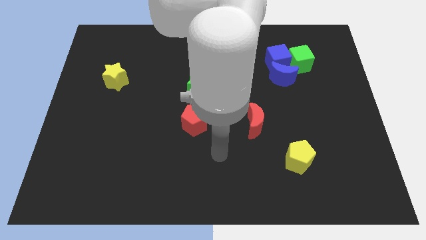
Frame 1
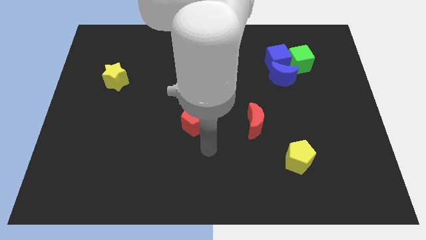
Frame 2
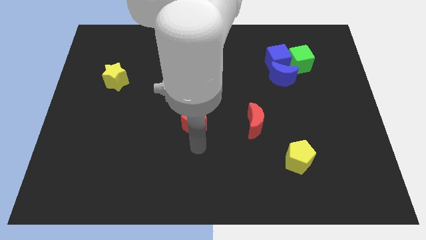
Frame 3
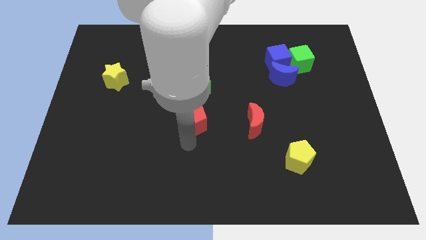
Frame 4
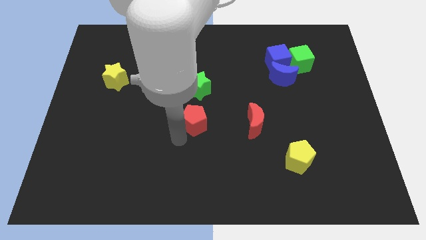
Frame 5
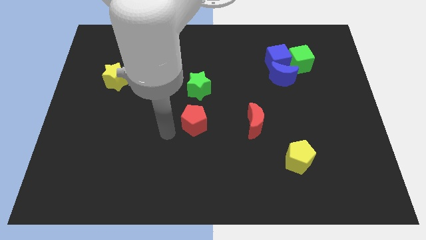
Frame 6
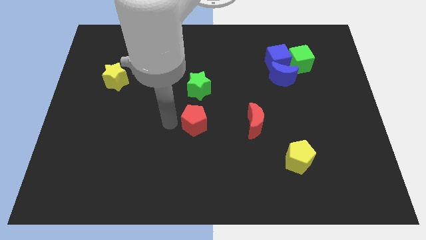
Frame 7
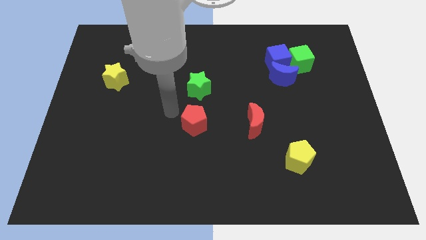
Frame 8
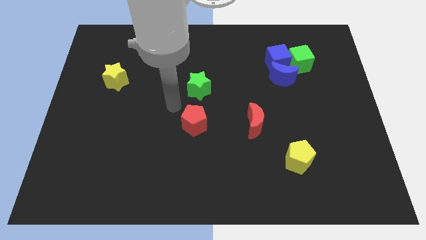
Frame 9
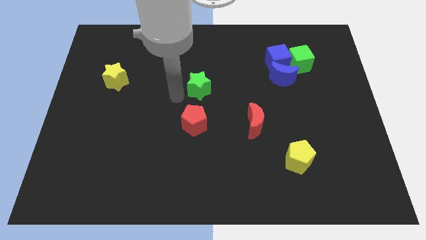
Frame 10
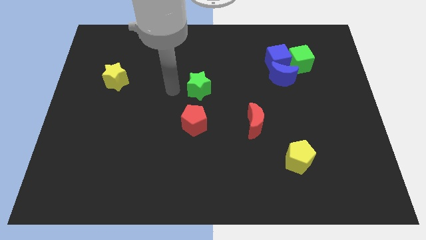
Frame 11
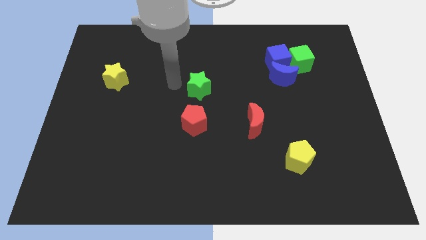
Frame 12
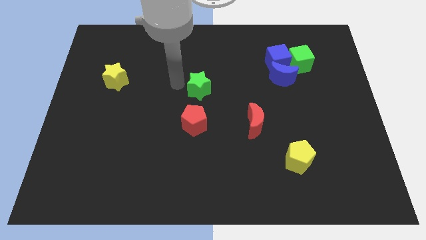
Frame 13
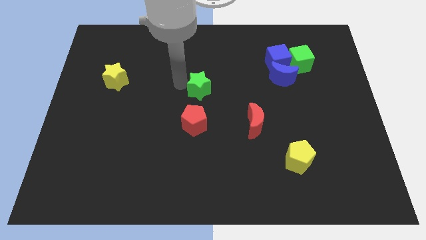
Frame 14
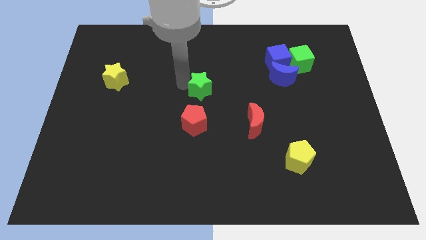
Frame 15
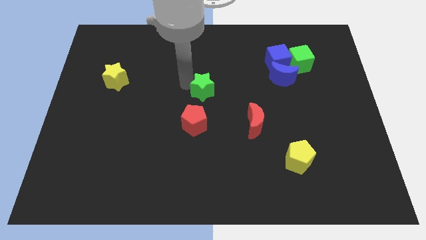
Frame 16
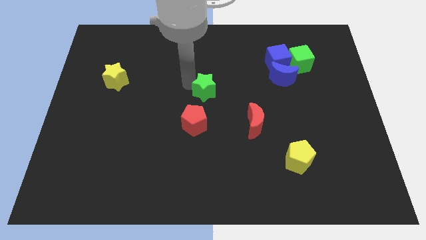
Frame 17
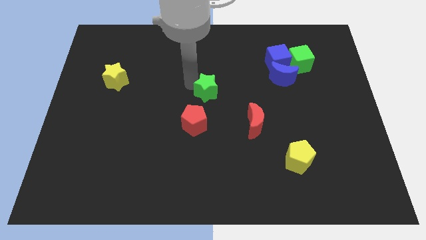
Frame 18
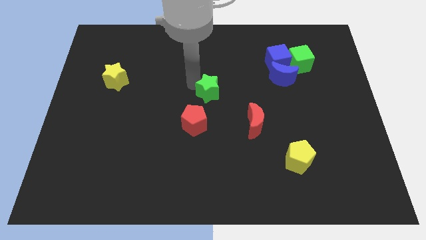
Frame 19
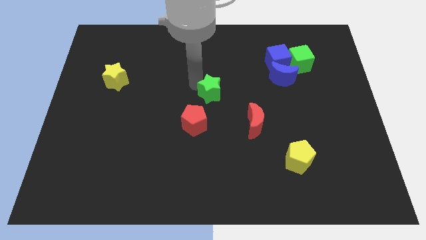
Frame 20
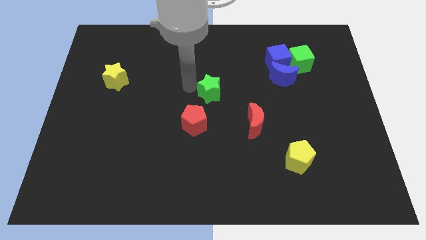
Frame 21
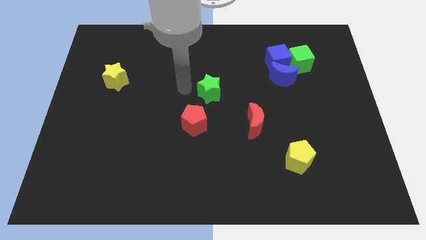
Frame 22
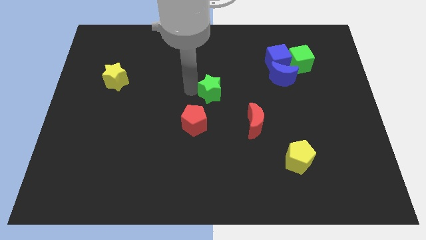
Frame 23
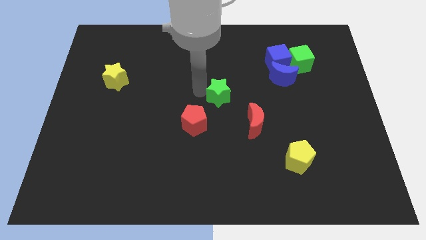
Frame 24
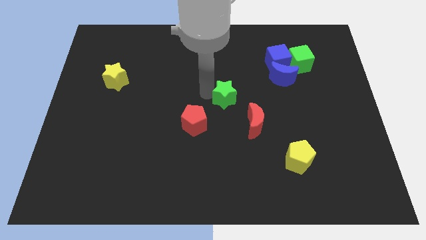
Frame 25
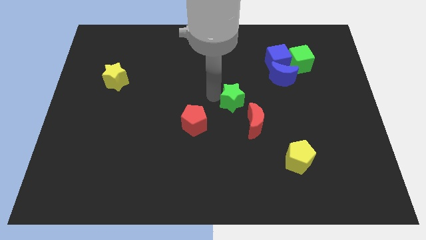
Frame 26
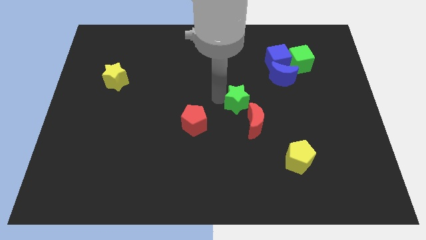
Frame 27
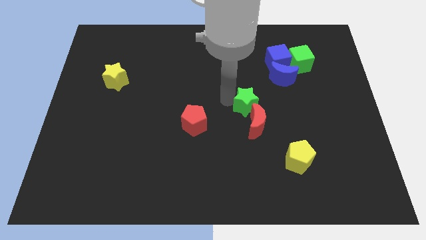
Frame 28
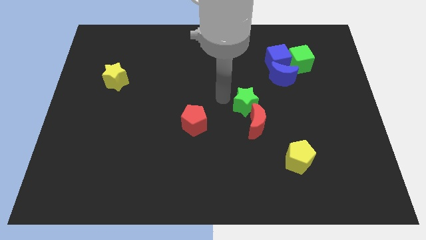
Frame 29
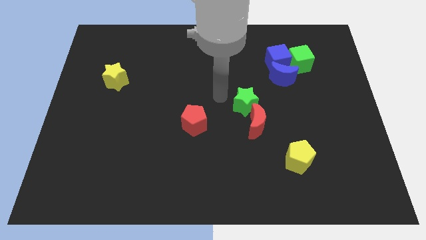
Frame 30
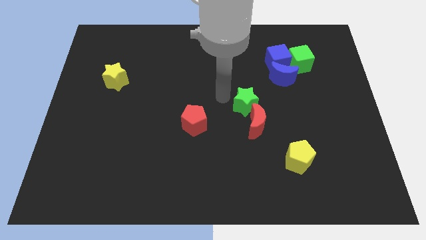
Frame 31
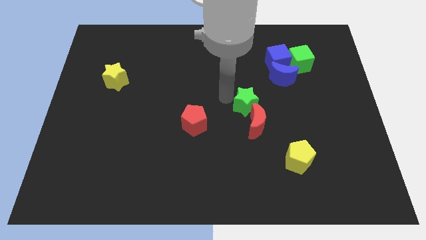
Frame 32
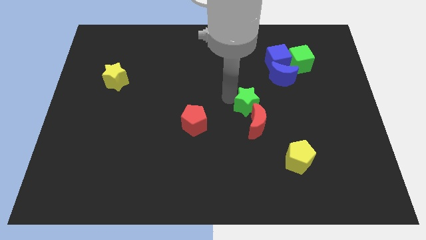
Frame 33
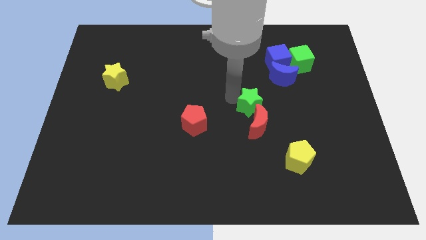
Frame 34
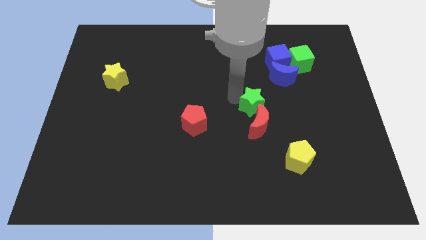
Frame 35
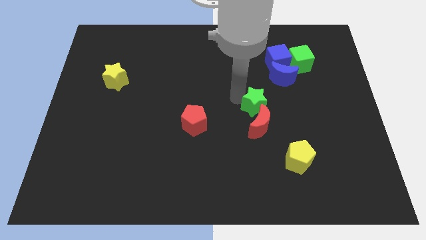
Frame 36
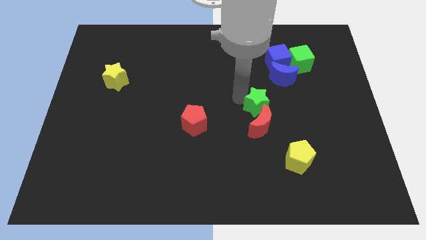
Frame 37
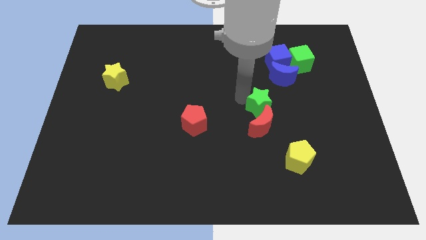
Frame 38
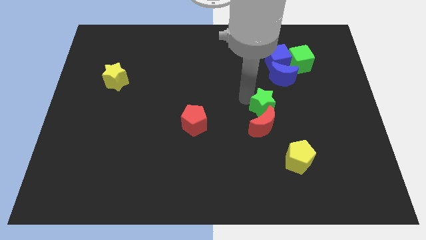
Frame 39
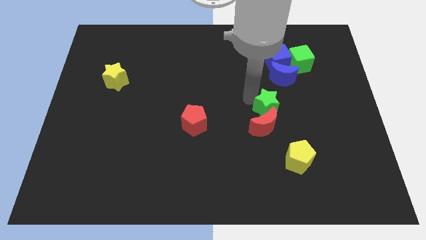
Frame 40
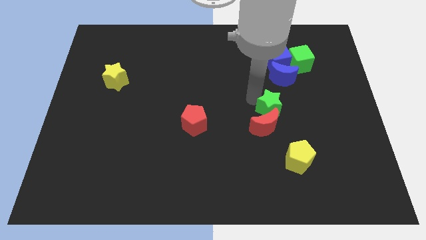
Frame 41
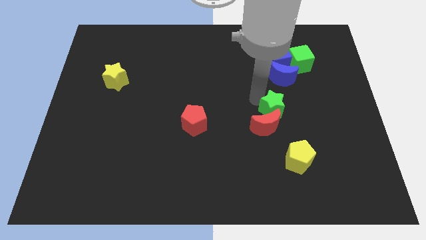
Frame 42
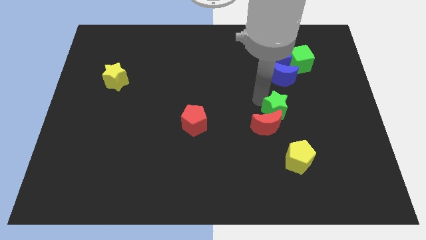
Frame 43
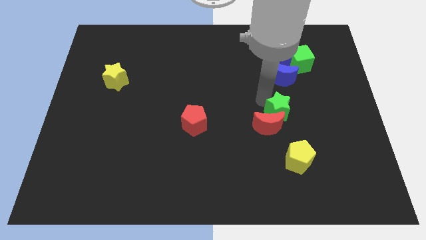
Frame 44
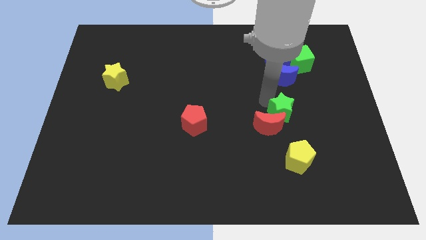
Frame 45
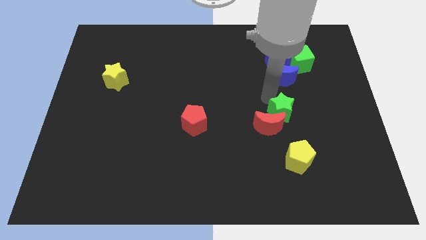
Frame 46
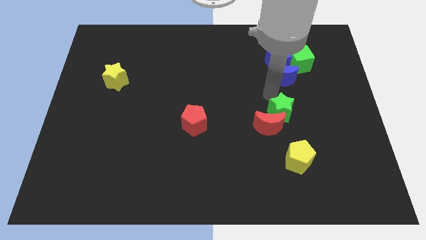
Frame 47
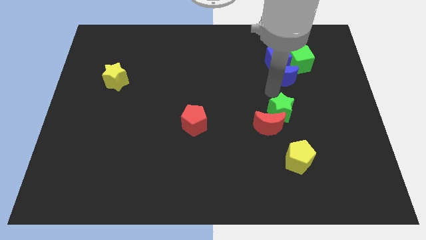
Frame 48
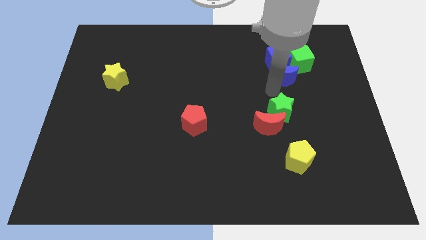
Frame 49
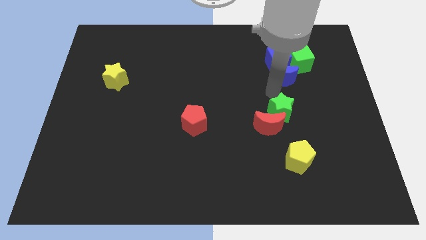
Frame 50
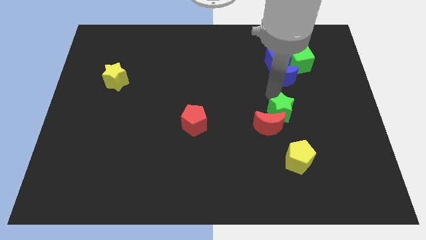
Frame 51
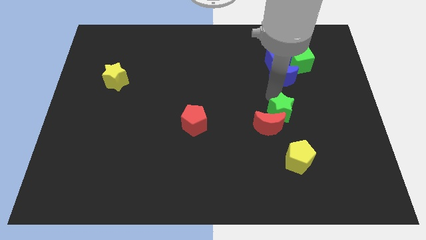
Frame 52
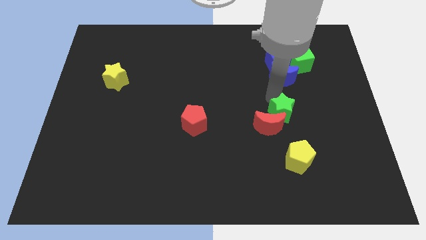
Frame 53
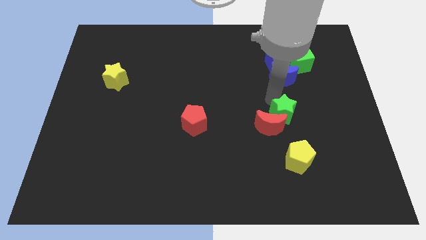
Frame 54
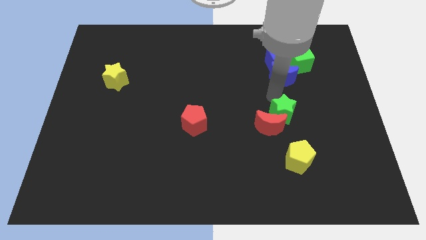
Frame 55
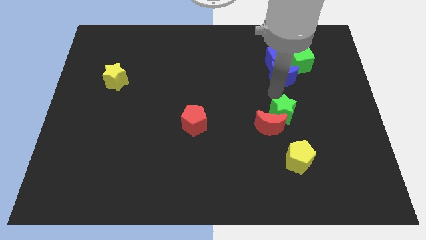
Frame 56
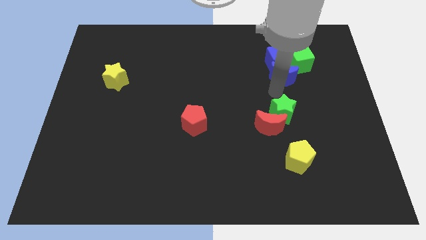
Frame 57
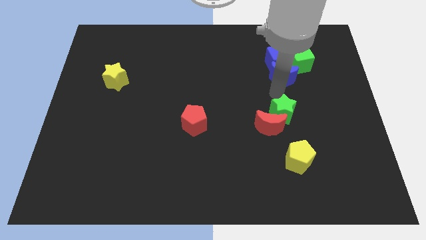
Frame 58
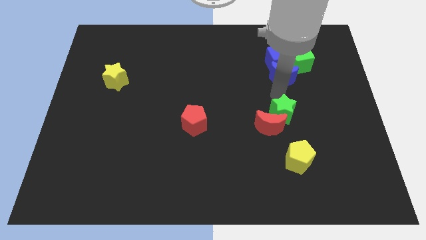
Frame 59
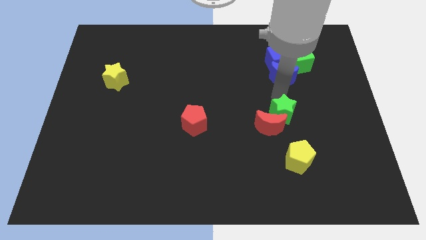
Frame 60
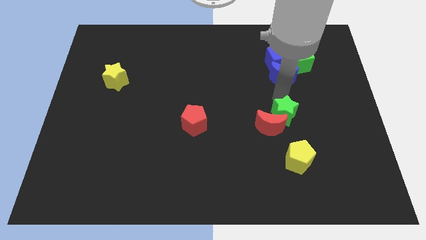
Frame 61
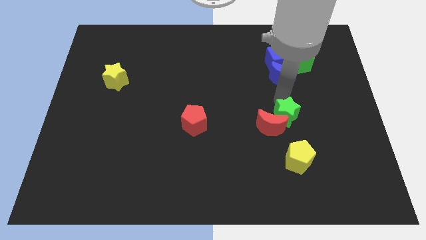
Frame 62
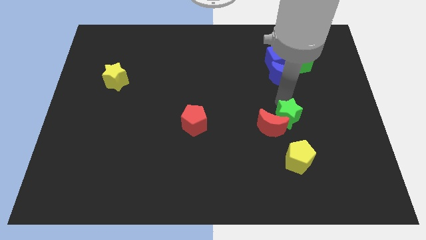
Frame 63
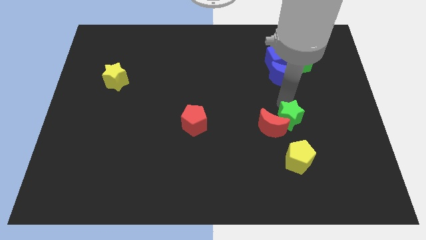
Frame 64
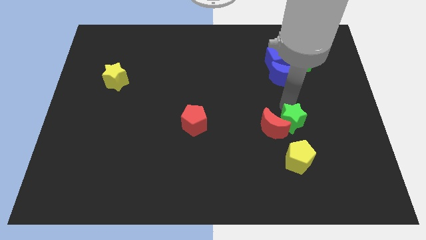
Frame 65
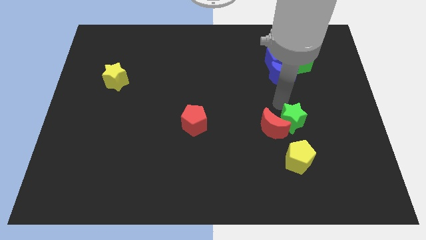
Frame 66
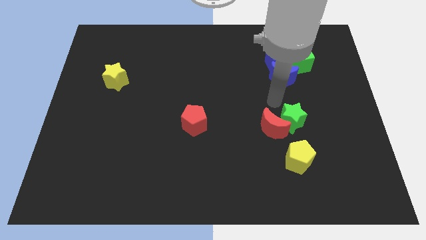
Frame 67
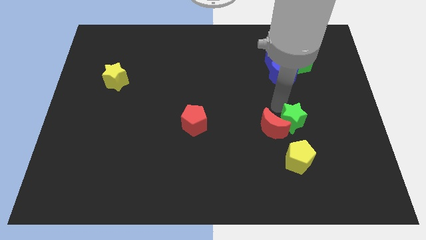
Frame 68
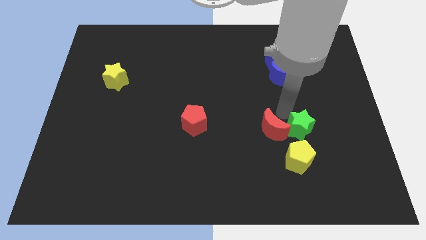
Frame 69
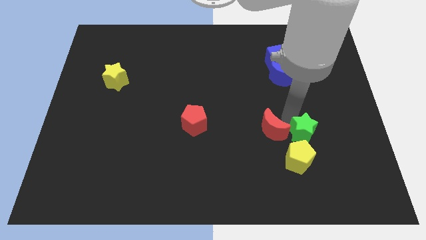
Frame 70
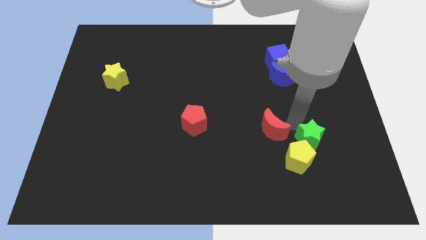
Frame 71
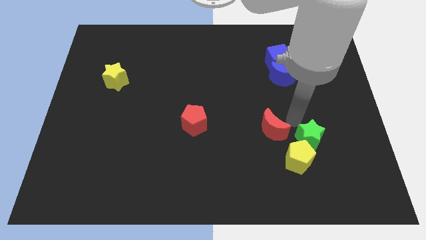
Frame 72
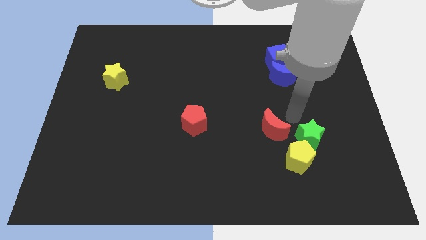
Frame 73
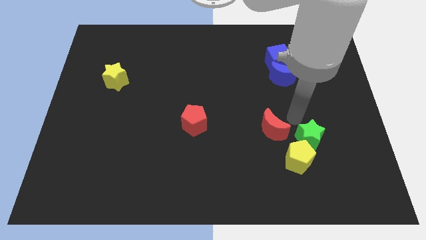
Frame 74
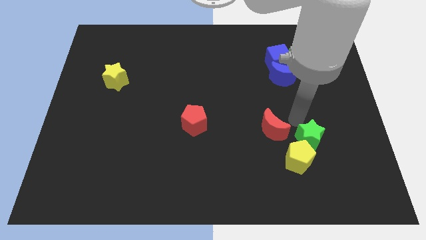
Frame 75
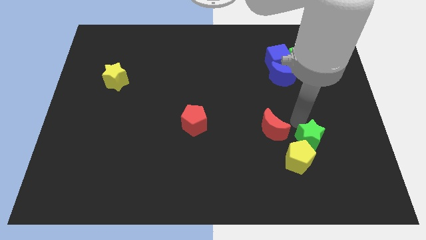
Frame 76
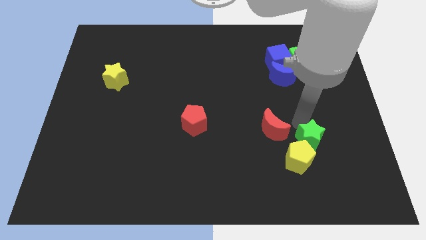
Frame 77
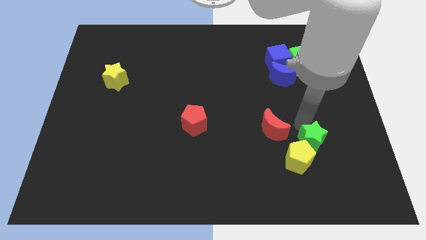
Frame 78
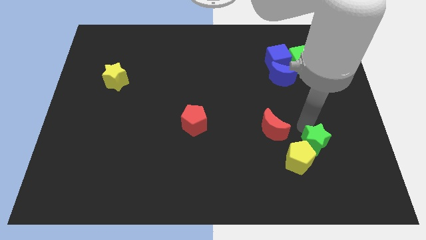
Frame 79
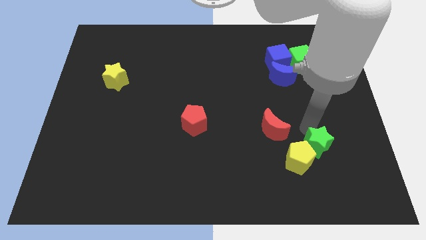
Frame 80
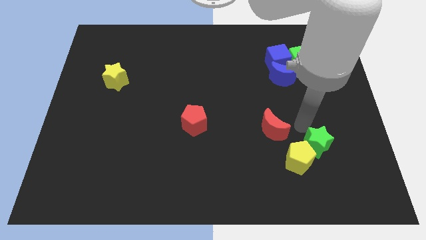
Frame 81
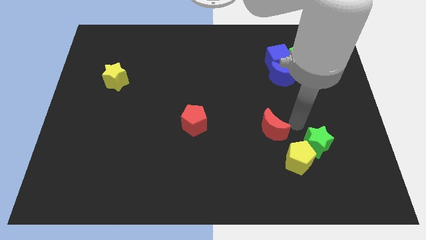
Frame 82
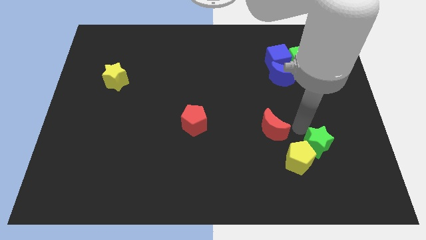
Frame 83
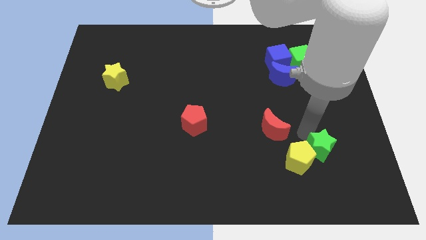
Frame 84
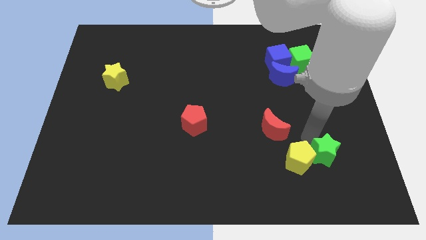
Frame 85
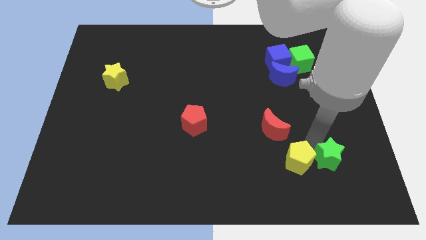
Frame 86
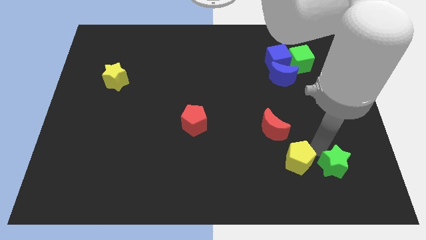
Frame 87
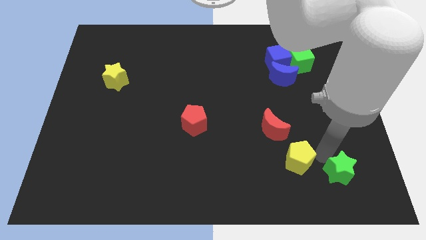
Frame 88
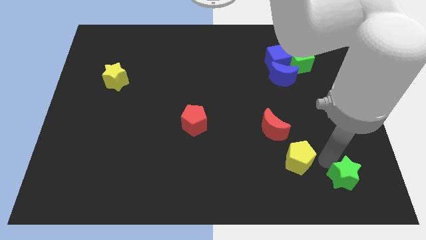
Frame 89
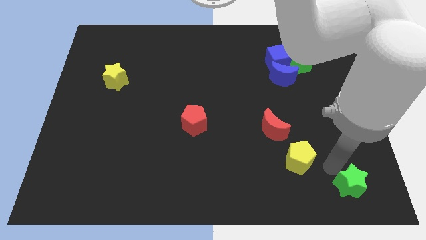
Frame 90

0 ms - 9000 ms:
push the green star to the lower right corner
